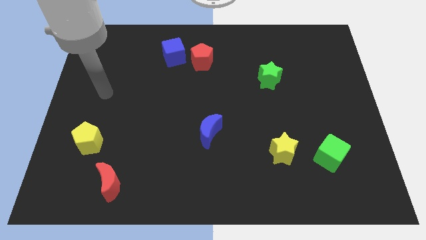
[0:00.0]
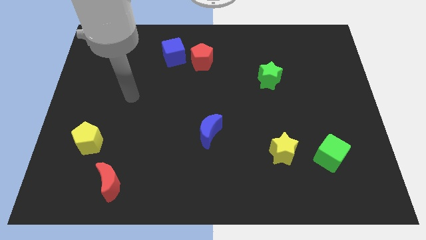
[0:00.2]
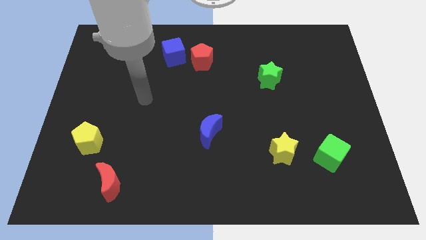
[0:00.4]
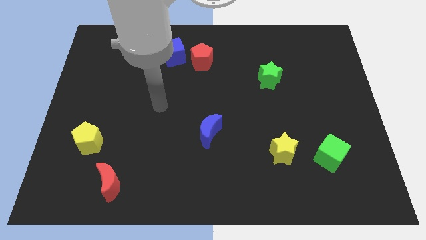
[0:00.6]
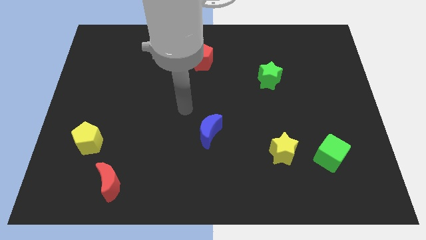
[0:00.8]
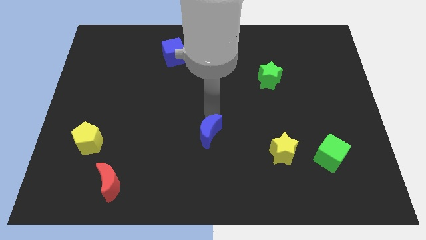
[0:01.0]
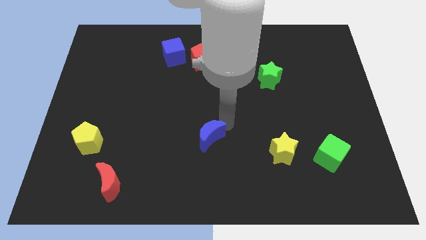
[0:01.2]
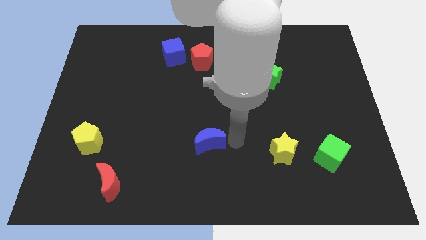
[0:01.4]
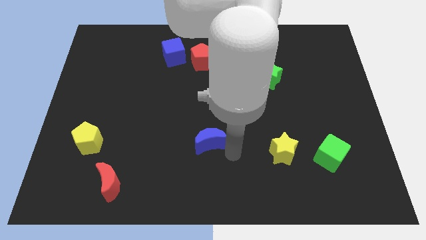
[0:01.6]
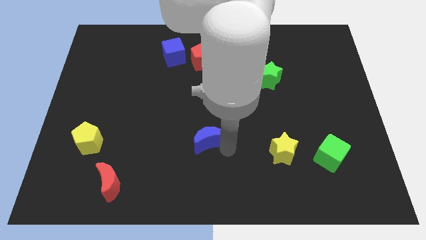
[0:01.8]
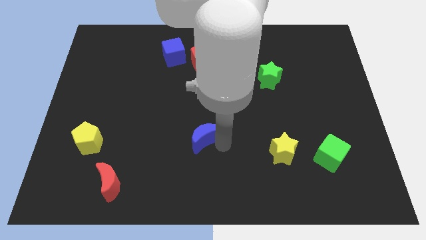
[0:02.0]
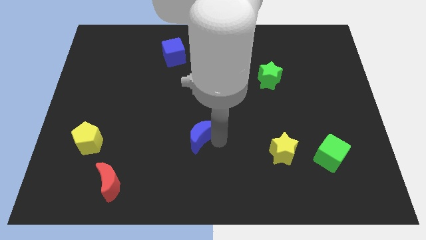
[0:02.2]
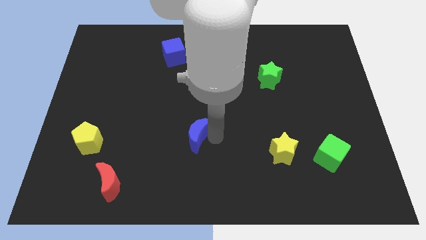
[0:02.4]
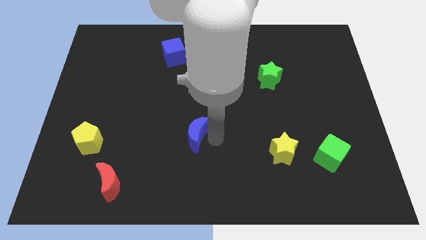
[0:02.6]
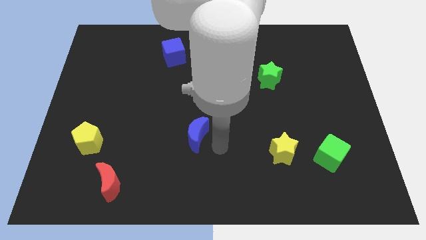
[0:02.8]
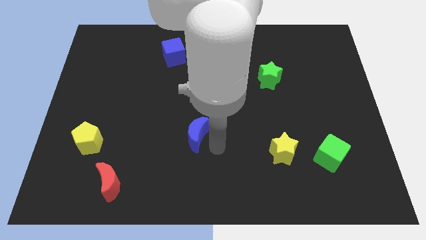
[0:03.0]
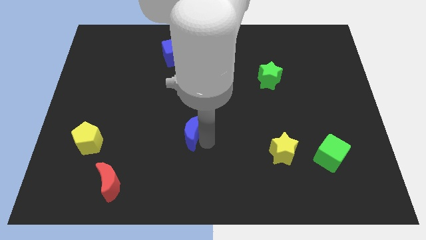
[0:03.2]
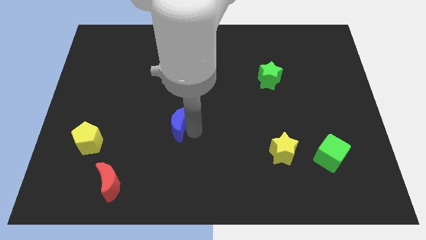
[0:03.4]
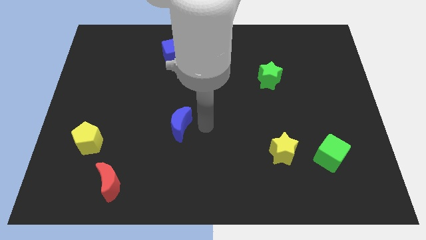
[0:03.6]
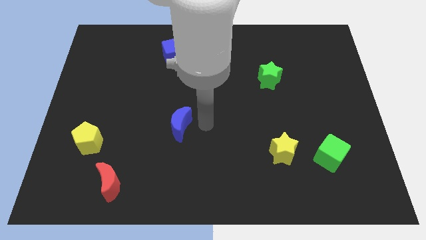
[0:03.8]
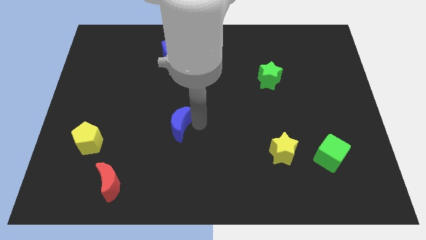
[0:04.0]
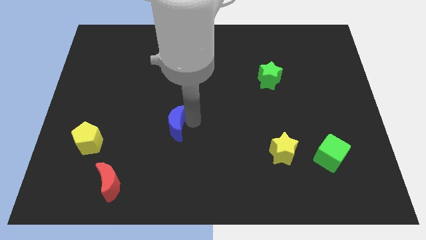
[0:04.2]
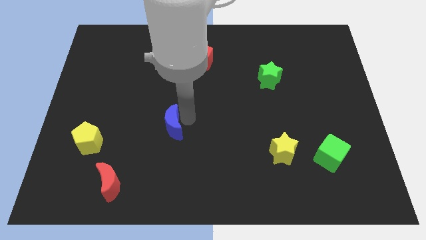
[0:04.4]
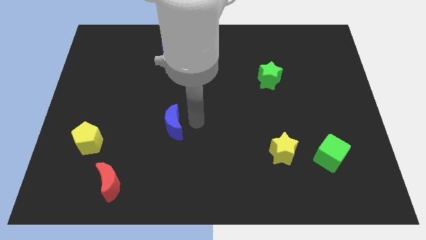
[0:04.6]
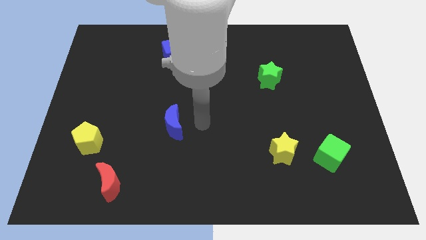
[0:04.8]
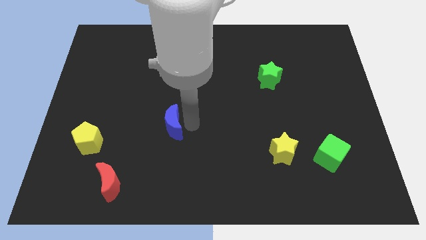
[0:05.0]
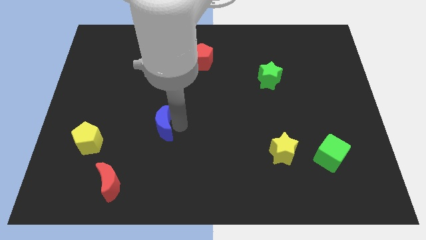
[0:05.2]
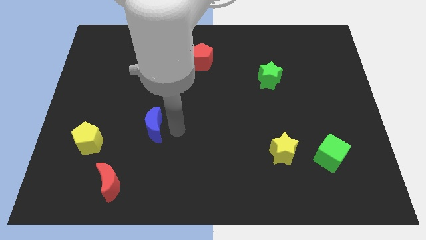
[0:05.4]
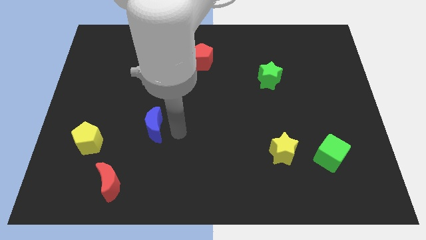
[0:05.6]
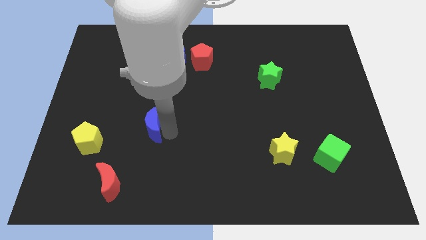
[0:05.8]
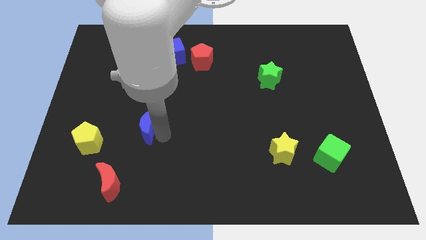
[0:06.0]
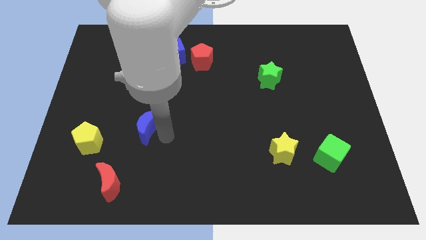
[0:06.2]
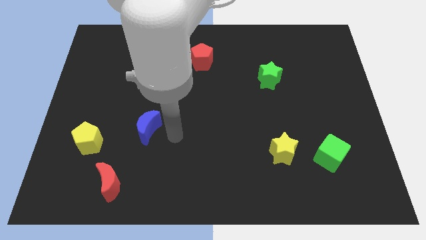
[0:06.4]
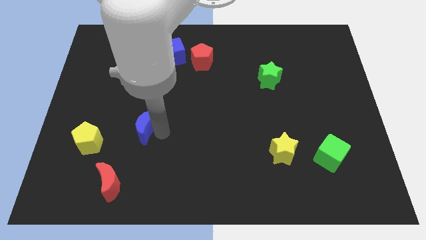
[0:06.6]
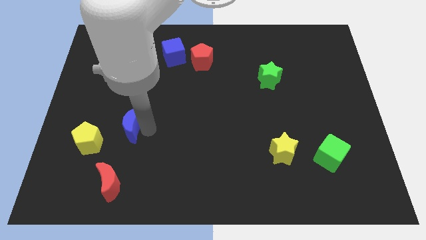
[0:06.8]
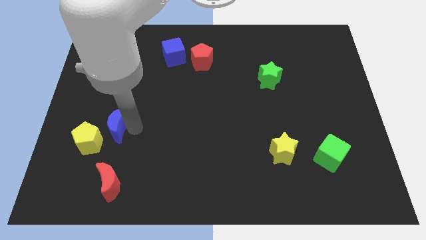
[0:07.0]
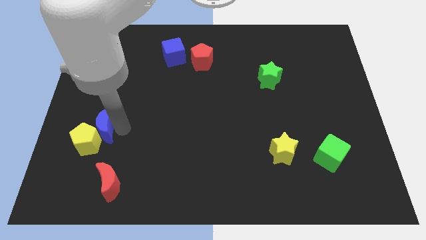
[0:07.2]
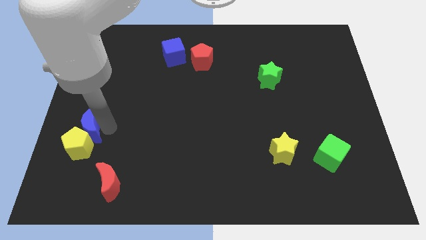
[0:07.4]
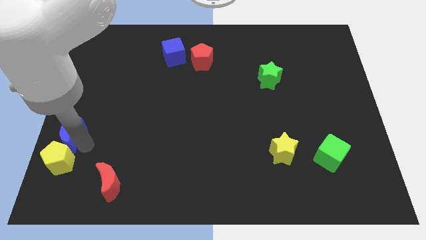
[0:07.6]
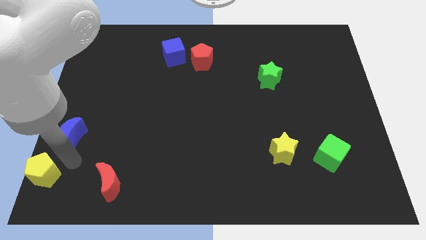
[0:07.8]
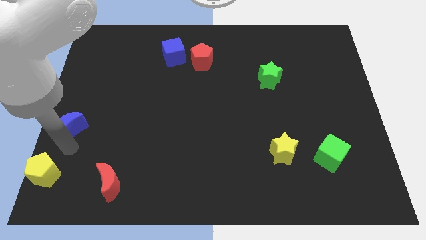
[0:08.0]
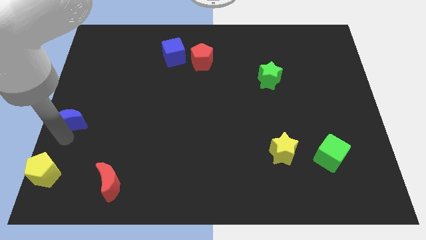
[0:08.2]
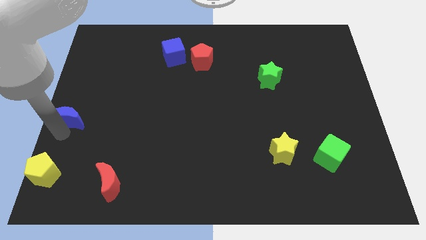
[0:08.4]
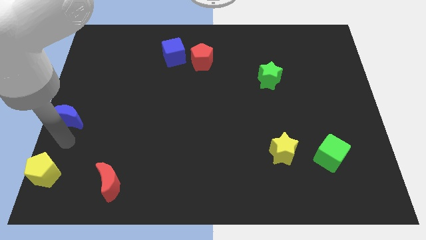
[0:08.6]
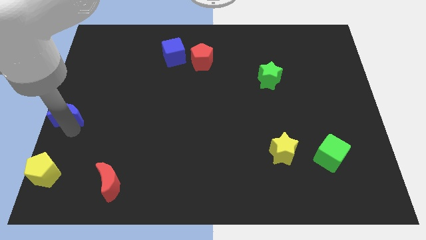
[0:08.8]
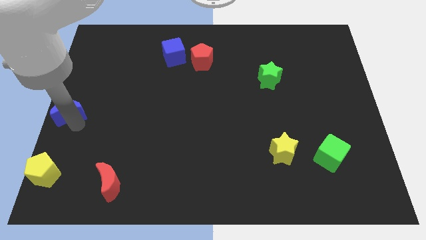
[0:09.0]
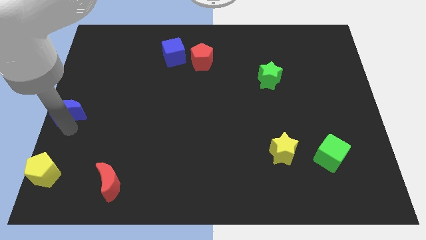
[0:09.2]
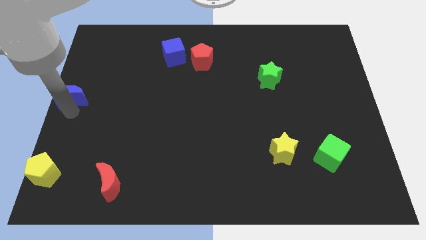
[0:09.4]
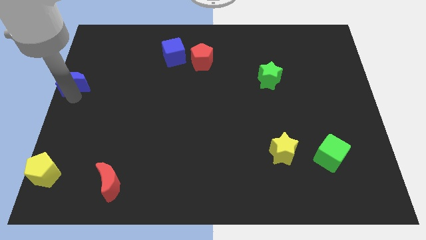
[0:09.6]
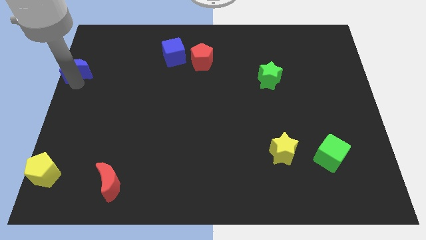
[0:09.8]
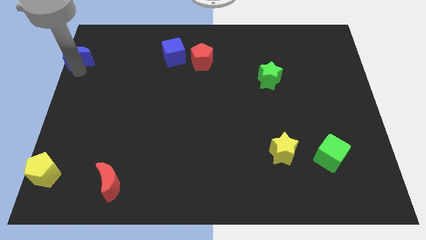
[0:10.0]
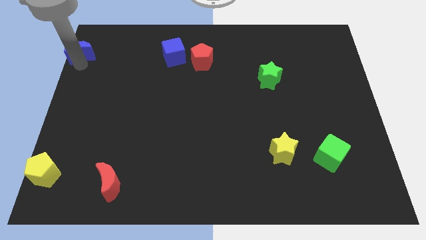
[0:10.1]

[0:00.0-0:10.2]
put the blue moon to the top left of the board

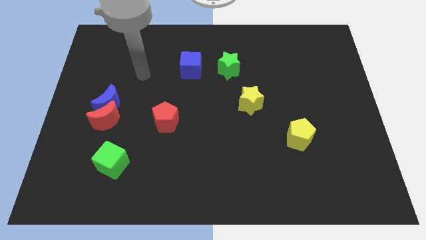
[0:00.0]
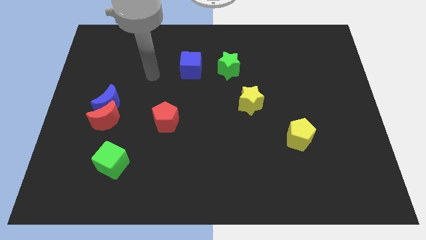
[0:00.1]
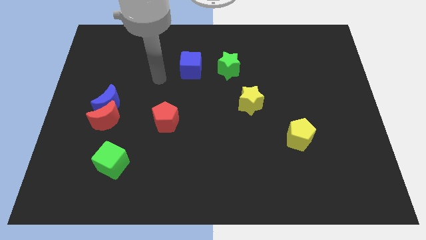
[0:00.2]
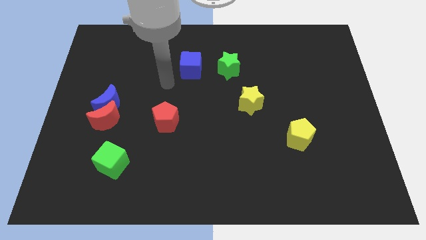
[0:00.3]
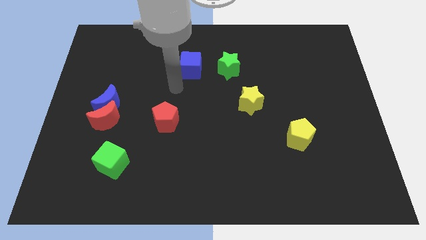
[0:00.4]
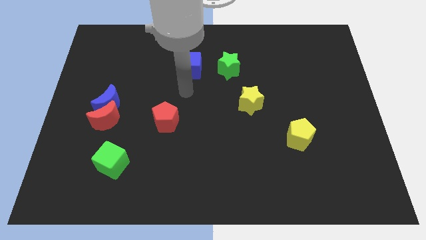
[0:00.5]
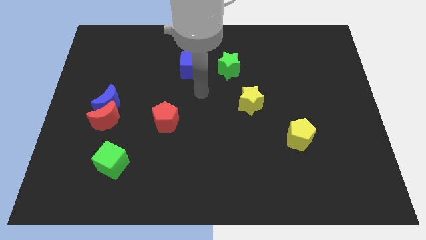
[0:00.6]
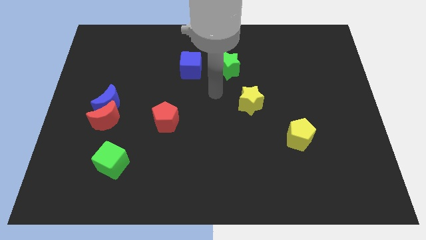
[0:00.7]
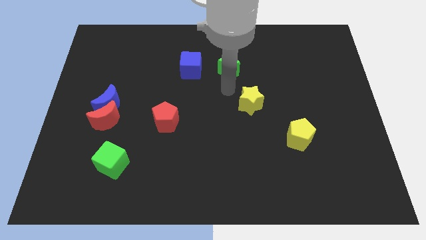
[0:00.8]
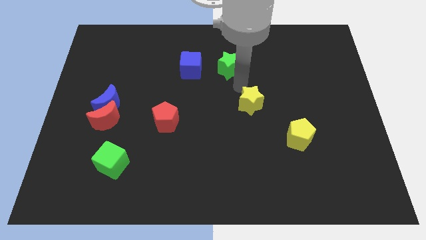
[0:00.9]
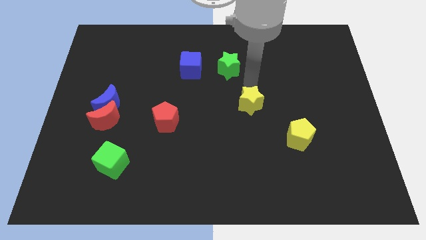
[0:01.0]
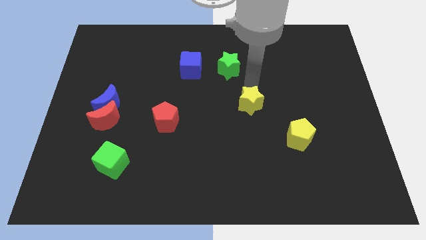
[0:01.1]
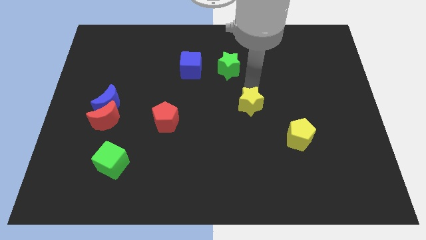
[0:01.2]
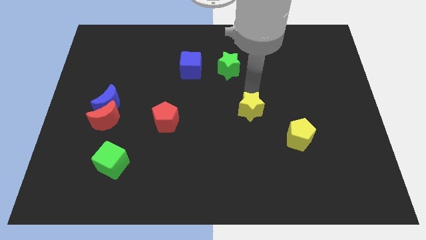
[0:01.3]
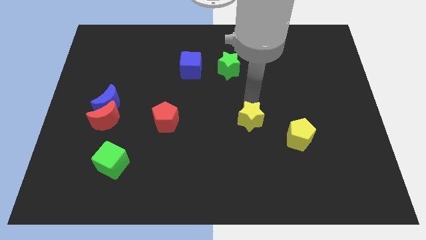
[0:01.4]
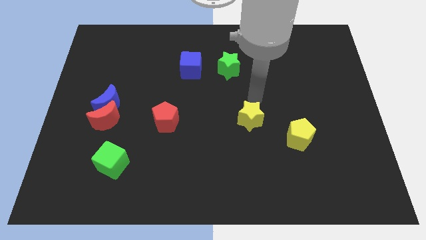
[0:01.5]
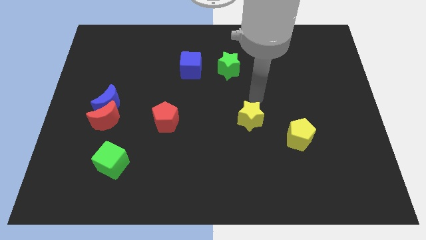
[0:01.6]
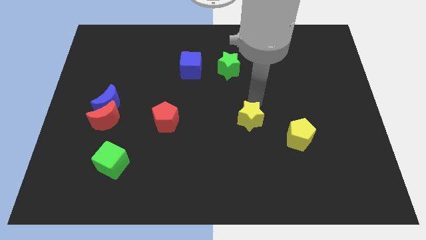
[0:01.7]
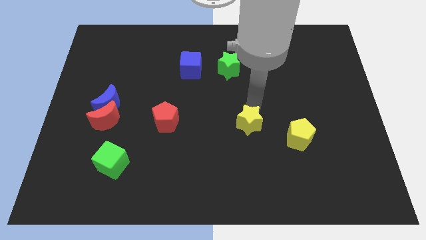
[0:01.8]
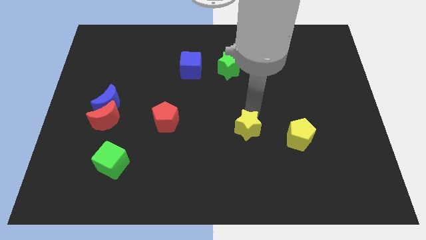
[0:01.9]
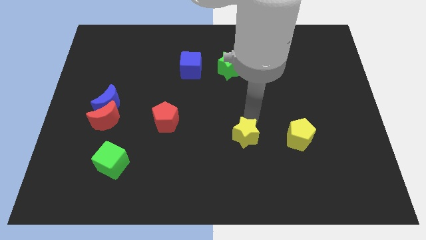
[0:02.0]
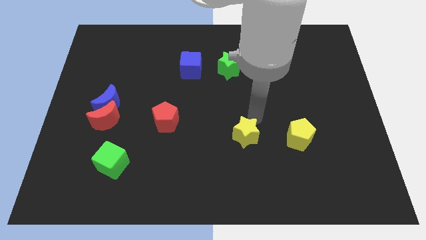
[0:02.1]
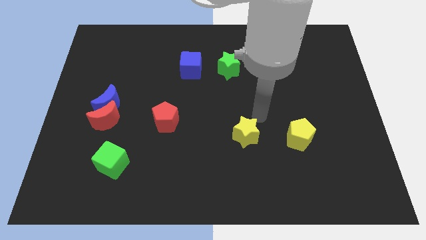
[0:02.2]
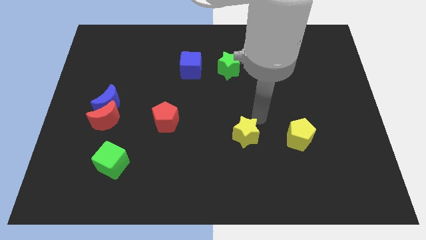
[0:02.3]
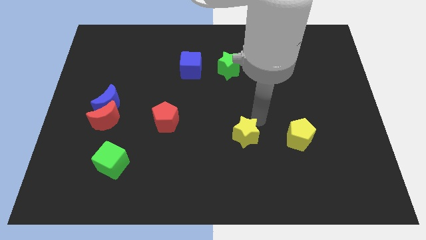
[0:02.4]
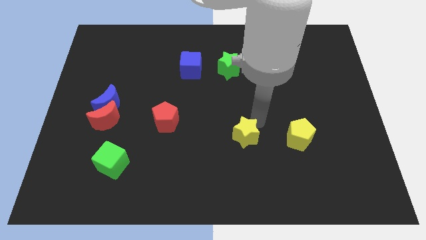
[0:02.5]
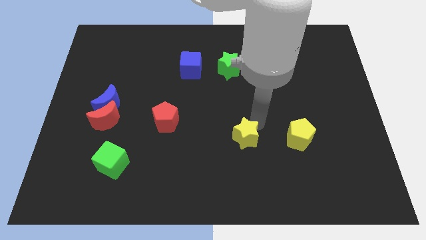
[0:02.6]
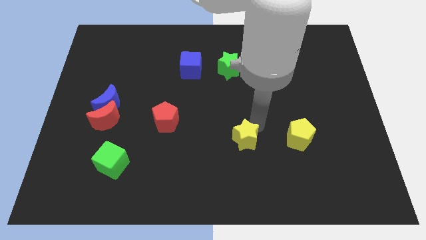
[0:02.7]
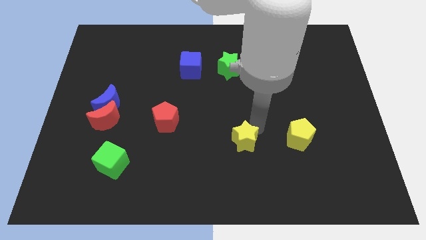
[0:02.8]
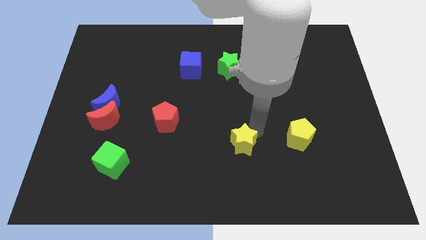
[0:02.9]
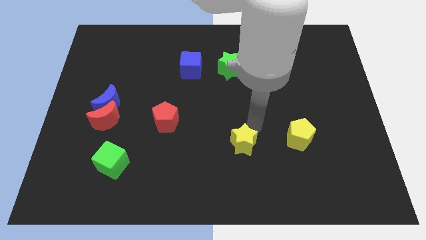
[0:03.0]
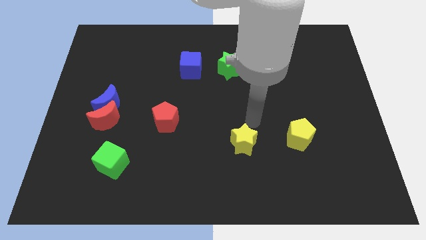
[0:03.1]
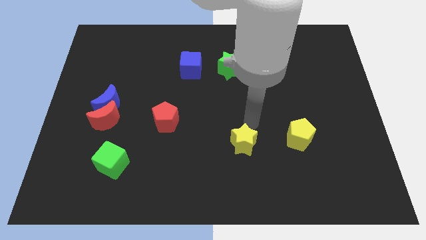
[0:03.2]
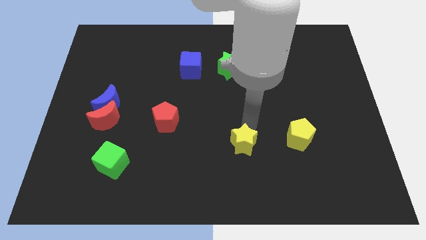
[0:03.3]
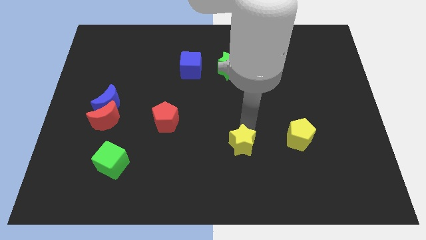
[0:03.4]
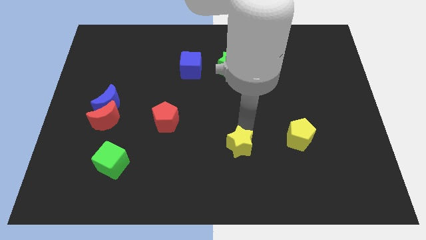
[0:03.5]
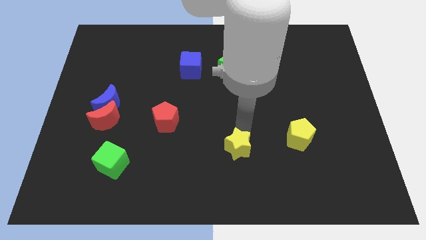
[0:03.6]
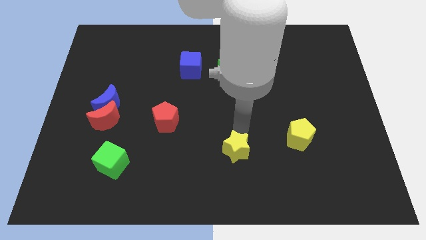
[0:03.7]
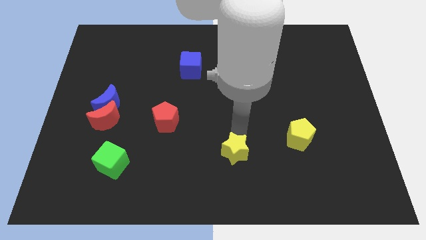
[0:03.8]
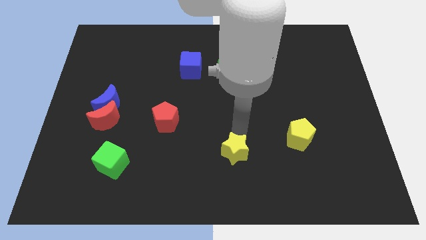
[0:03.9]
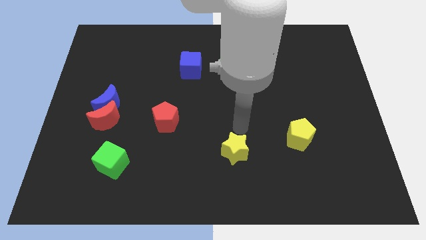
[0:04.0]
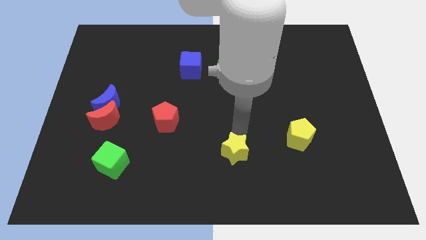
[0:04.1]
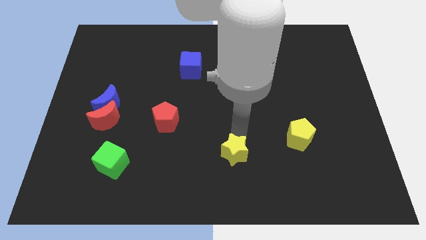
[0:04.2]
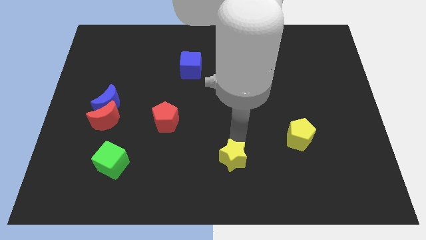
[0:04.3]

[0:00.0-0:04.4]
put the yellow star to the bottom
